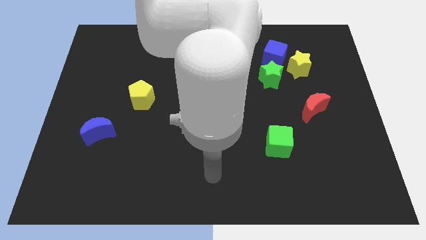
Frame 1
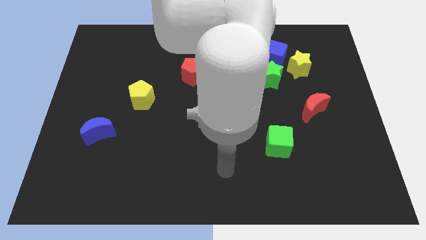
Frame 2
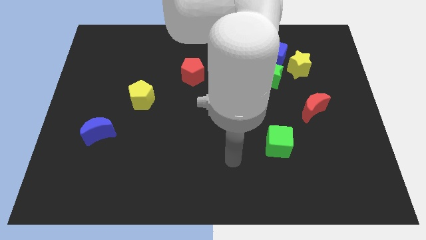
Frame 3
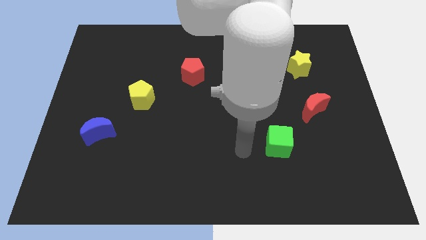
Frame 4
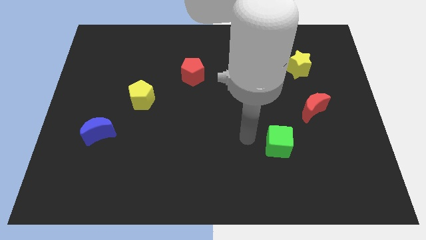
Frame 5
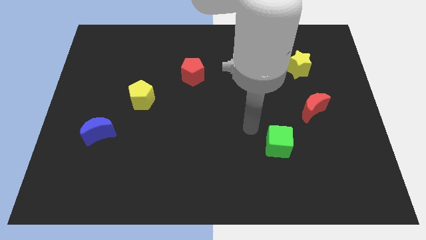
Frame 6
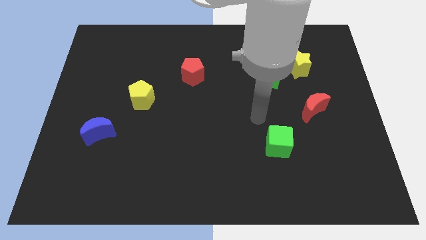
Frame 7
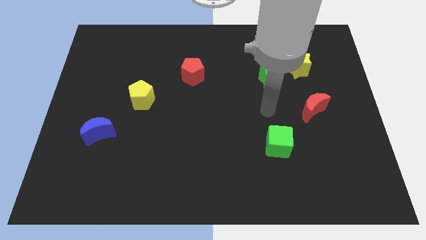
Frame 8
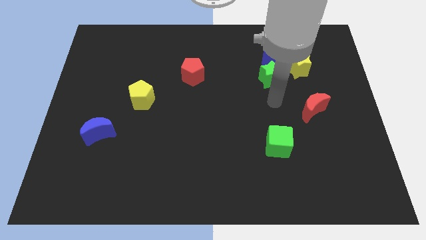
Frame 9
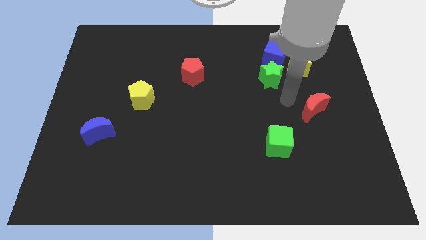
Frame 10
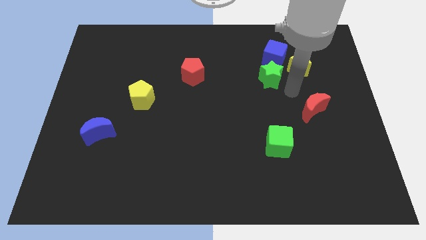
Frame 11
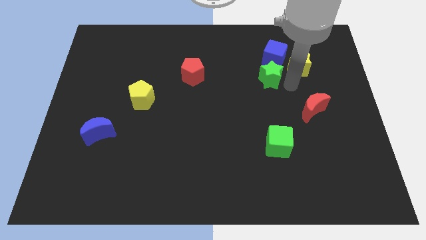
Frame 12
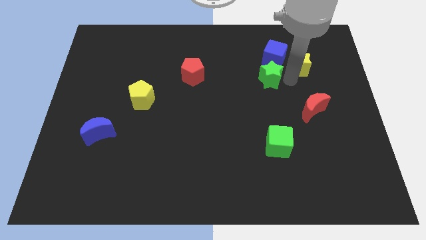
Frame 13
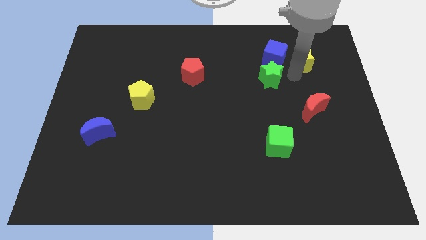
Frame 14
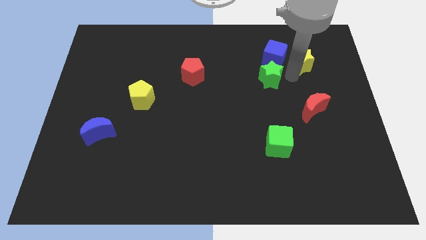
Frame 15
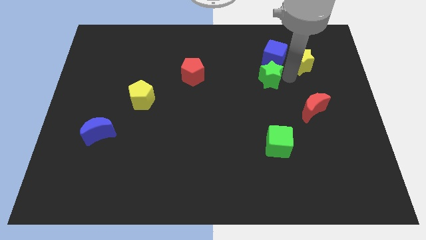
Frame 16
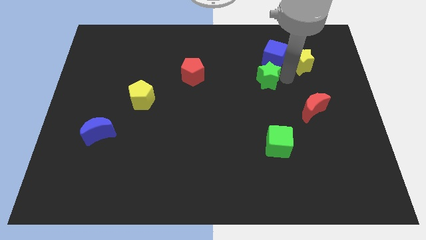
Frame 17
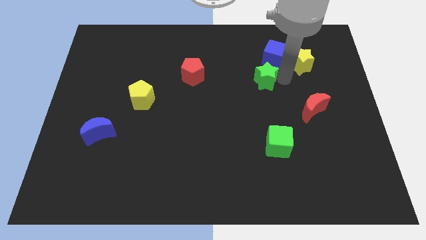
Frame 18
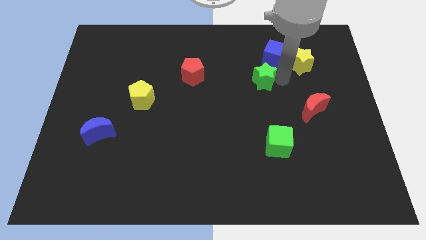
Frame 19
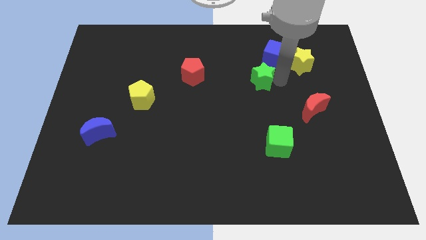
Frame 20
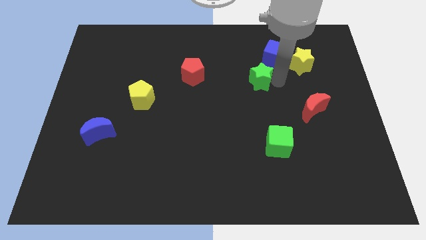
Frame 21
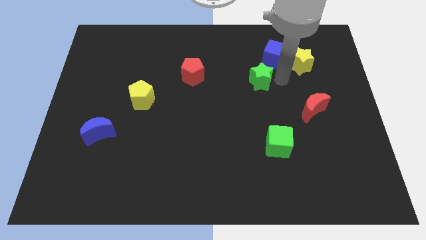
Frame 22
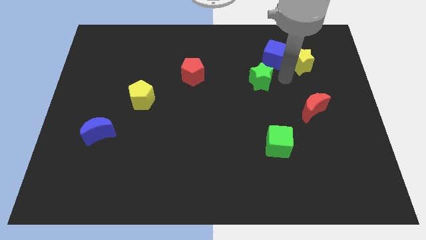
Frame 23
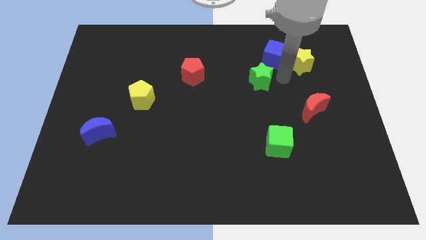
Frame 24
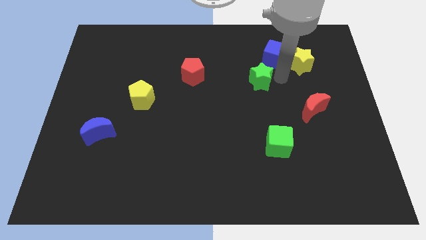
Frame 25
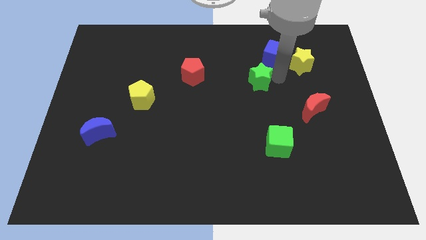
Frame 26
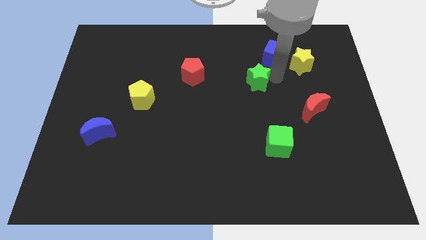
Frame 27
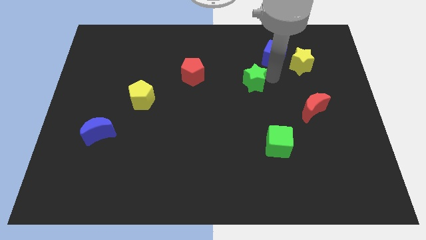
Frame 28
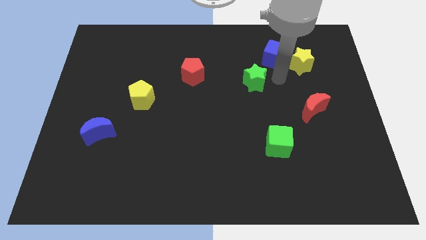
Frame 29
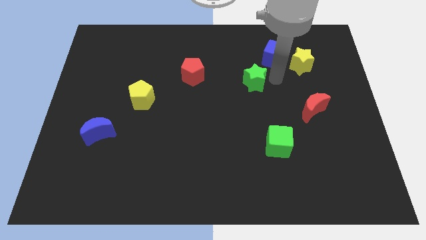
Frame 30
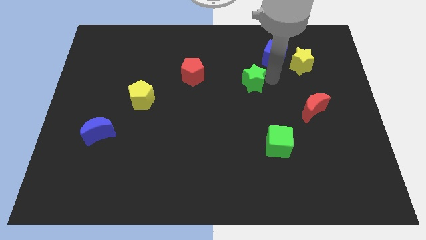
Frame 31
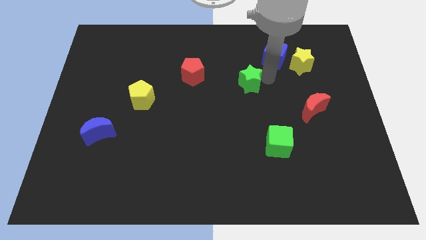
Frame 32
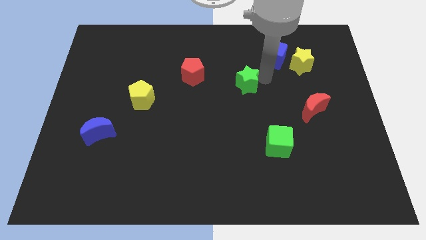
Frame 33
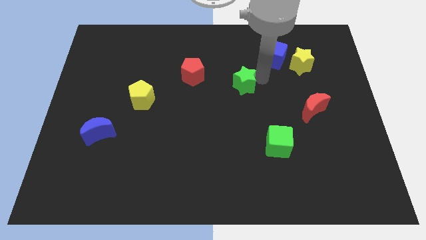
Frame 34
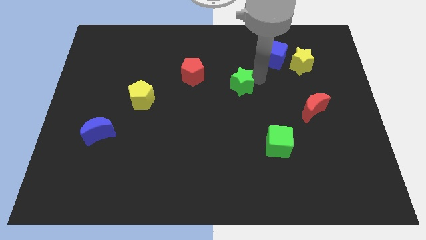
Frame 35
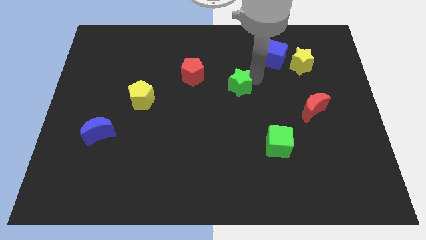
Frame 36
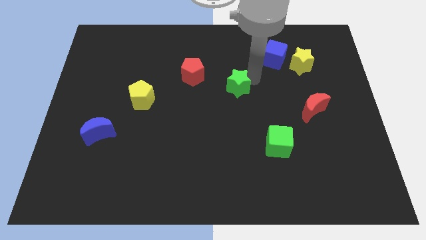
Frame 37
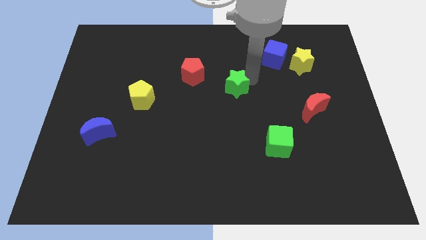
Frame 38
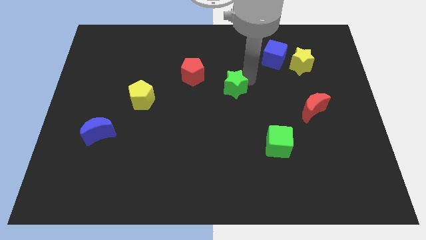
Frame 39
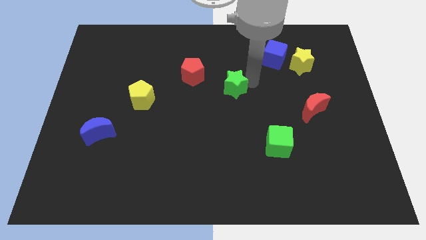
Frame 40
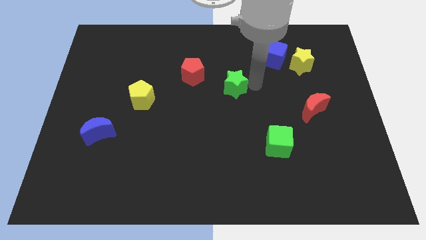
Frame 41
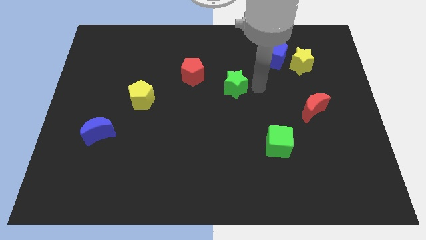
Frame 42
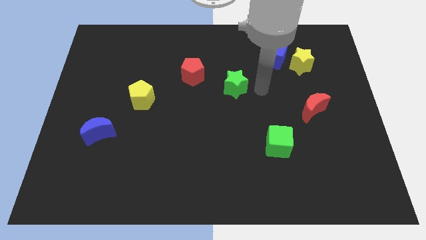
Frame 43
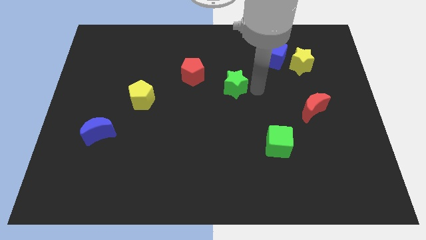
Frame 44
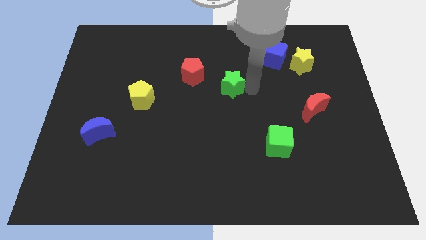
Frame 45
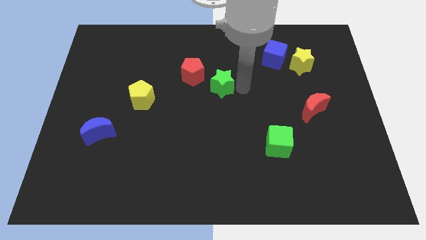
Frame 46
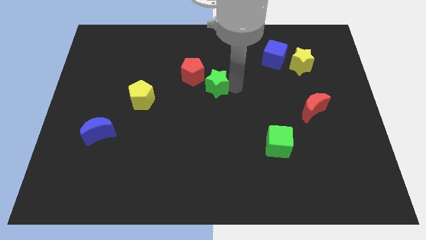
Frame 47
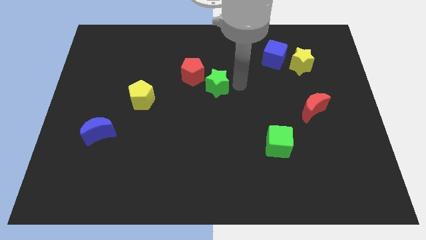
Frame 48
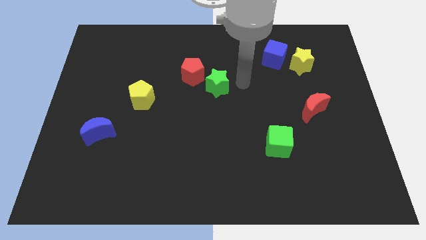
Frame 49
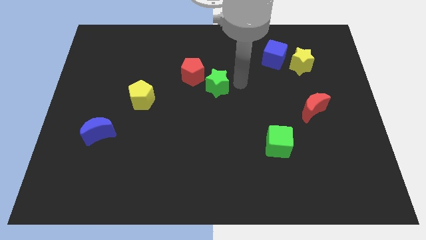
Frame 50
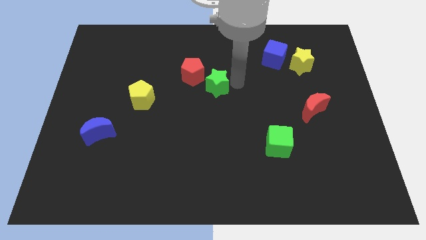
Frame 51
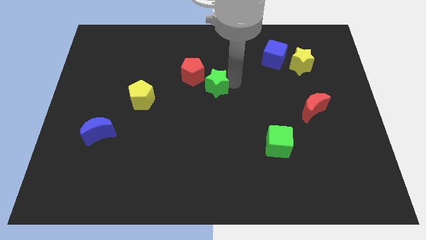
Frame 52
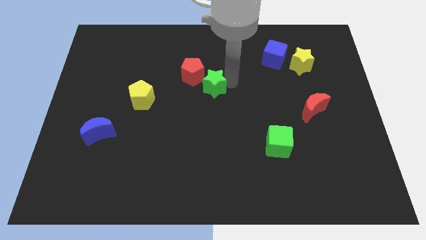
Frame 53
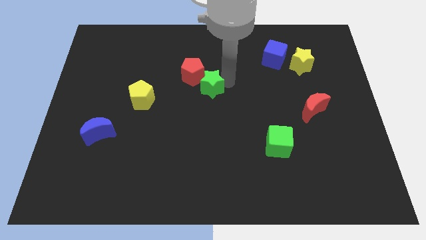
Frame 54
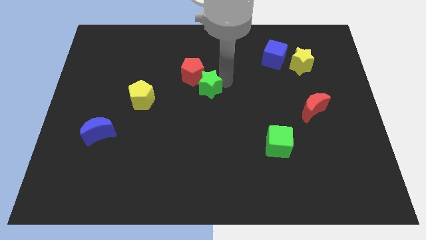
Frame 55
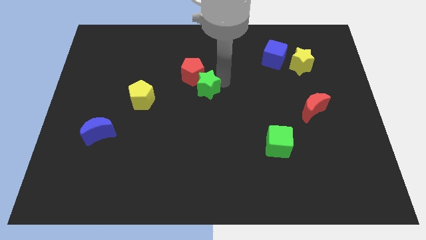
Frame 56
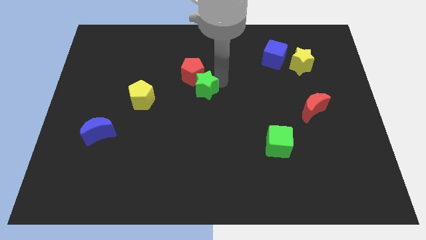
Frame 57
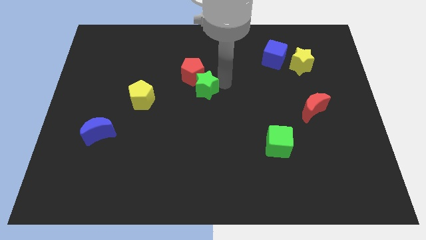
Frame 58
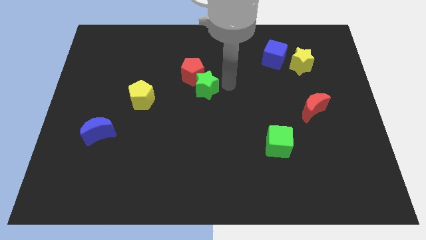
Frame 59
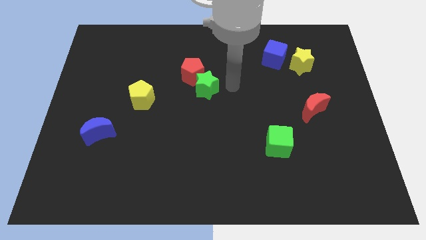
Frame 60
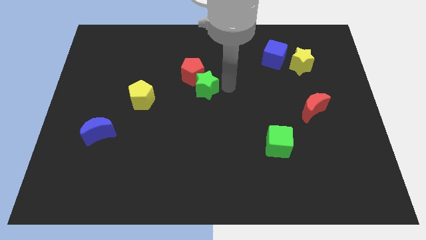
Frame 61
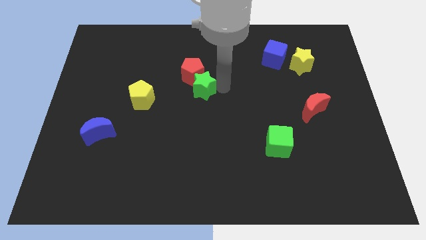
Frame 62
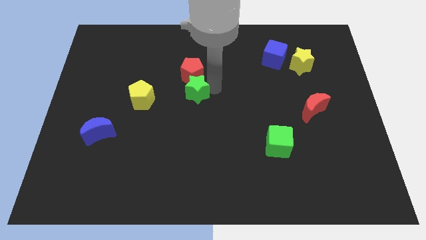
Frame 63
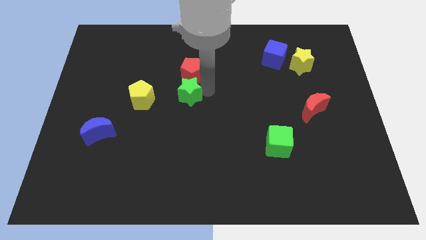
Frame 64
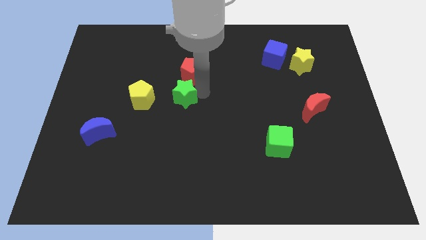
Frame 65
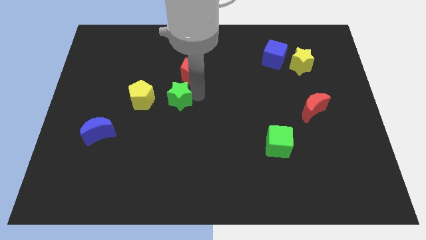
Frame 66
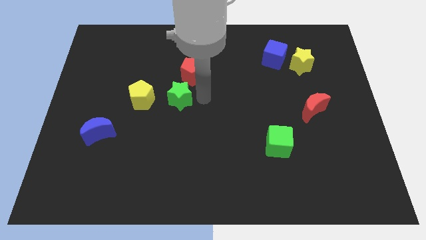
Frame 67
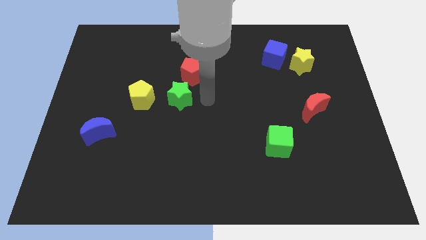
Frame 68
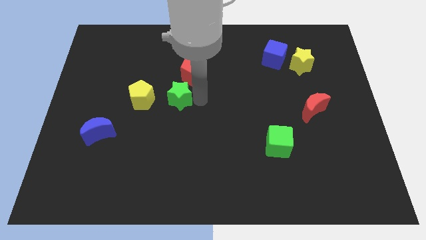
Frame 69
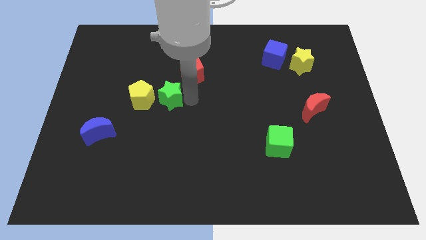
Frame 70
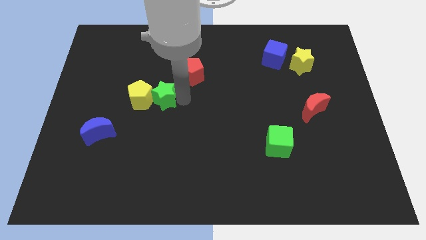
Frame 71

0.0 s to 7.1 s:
move the green star close to the yellow pentagon

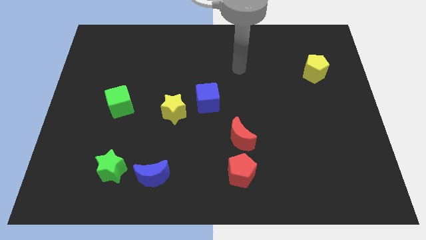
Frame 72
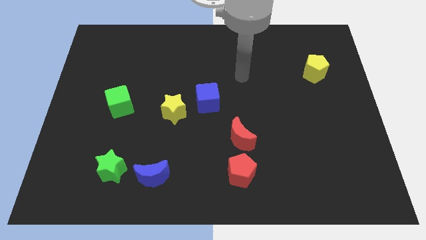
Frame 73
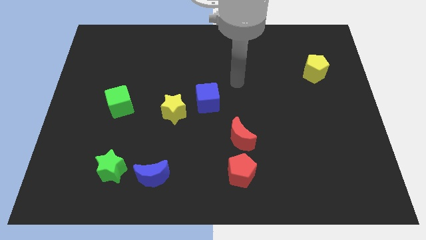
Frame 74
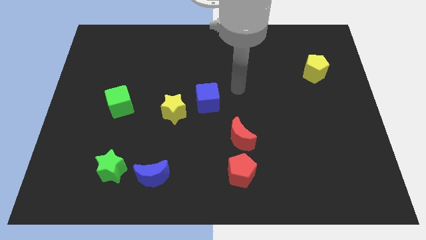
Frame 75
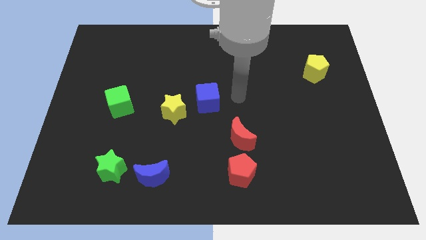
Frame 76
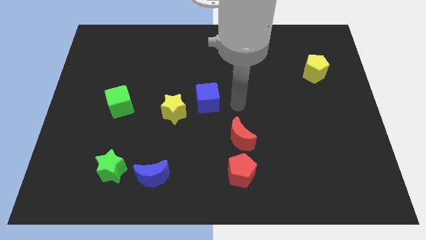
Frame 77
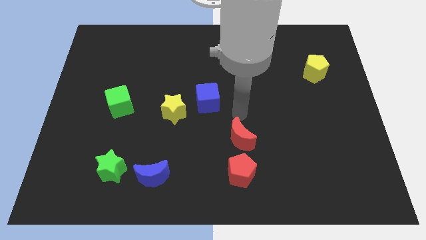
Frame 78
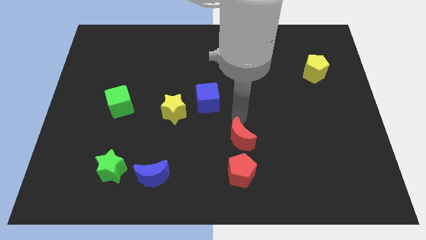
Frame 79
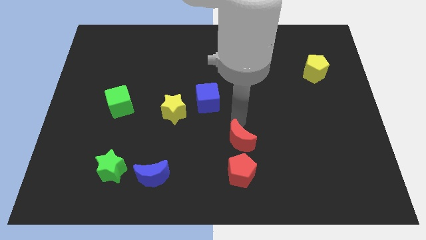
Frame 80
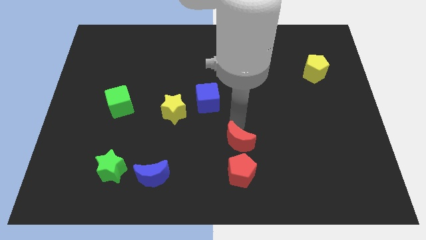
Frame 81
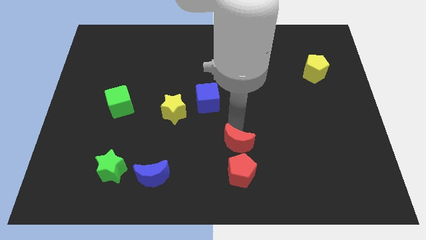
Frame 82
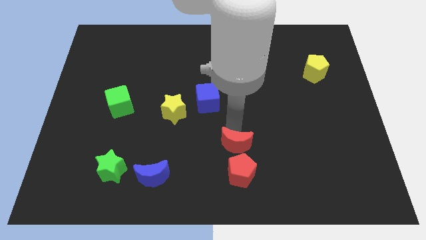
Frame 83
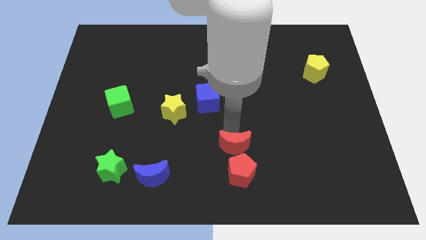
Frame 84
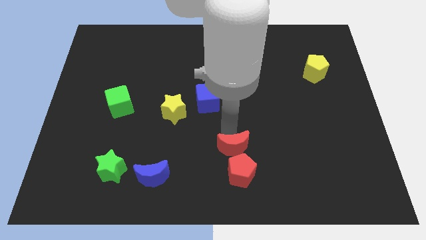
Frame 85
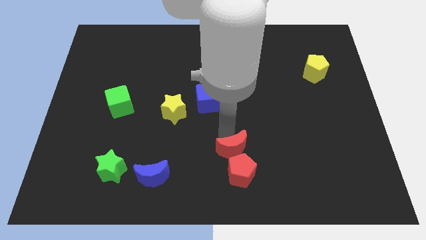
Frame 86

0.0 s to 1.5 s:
slide the red moon next to the red pentagon
